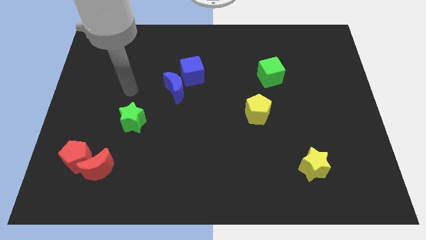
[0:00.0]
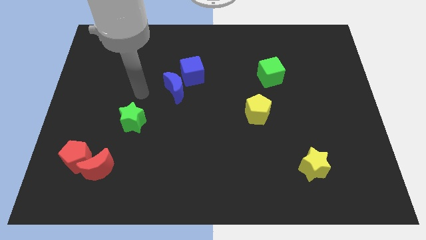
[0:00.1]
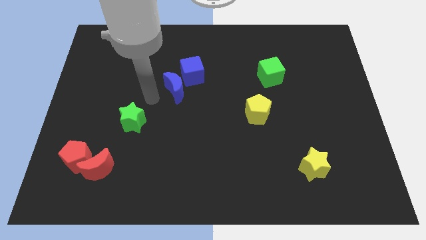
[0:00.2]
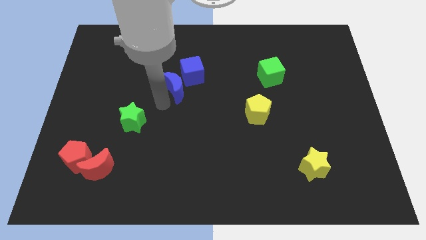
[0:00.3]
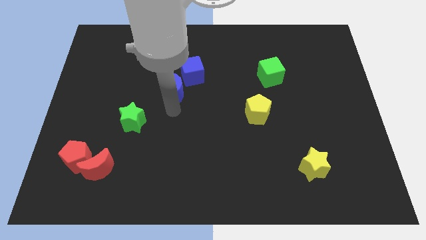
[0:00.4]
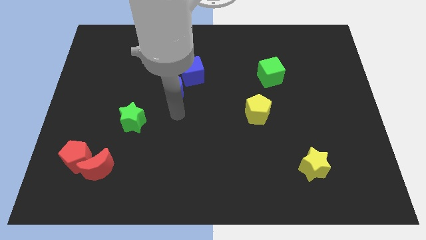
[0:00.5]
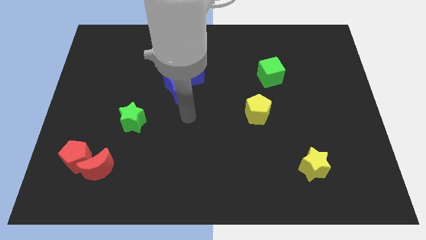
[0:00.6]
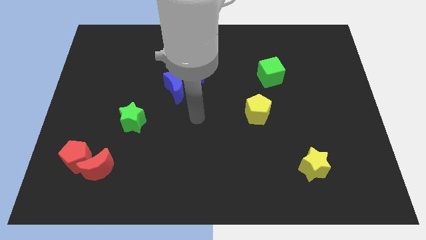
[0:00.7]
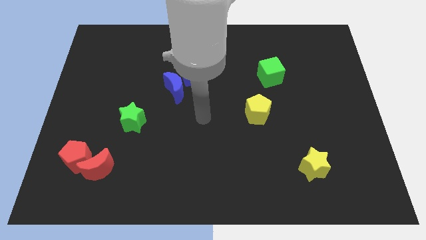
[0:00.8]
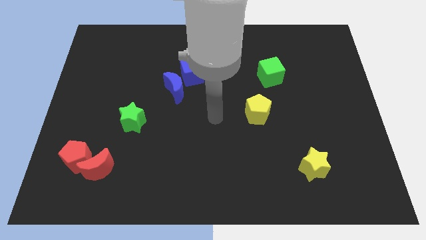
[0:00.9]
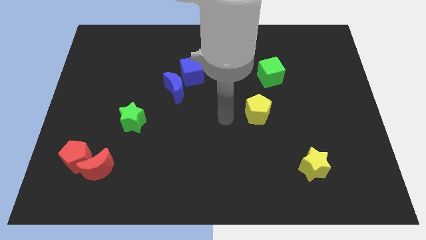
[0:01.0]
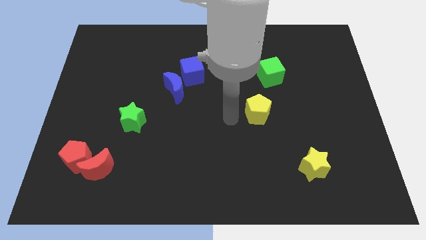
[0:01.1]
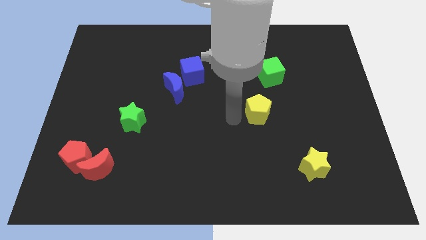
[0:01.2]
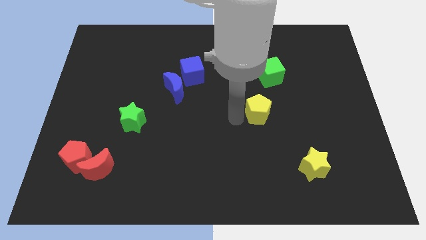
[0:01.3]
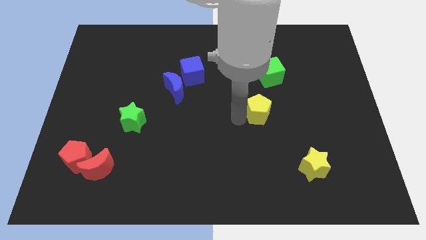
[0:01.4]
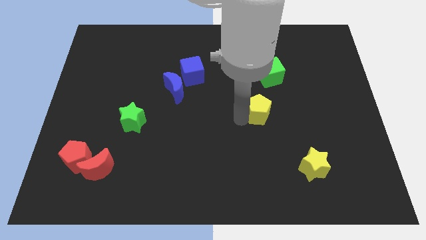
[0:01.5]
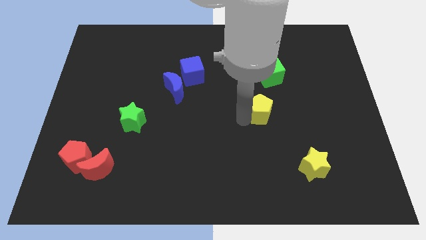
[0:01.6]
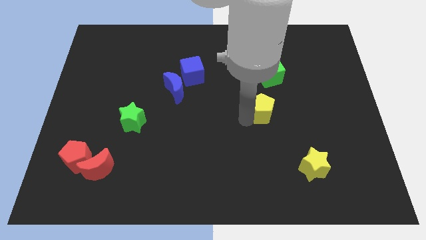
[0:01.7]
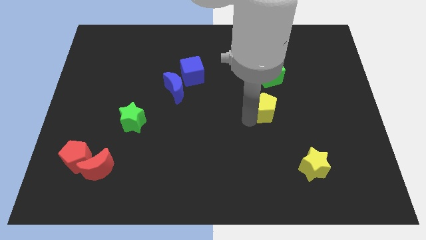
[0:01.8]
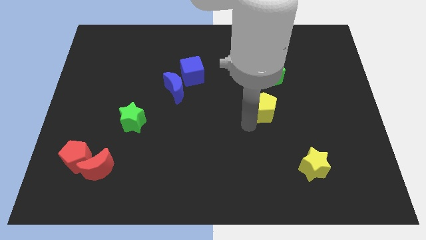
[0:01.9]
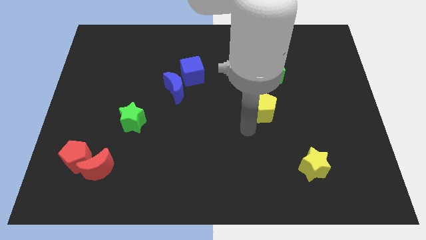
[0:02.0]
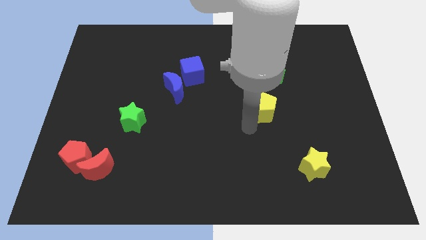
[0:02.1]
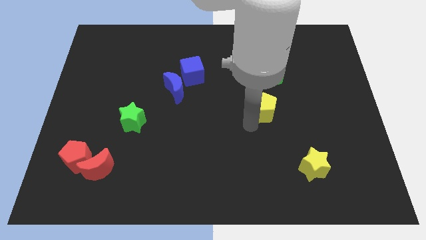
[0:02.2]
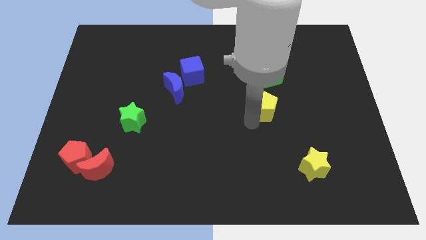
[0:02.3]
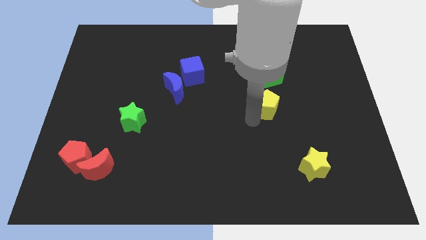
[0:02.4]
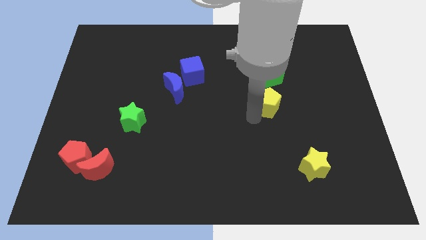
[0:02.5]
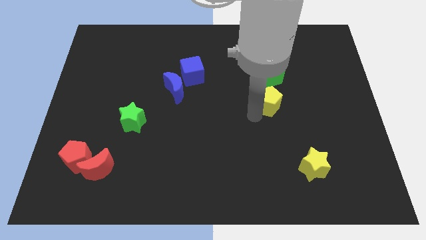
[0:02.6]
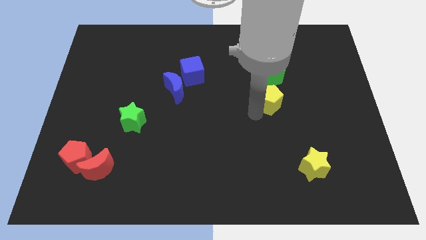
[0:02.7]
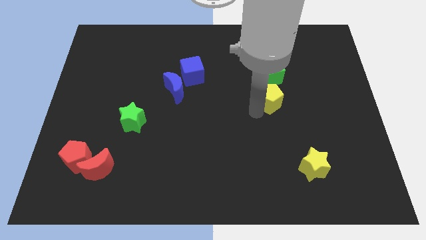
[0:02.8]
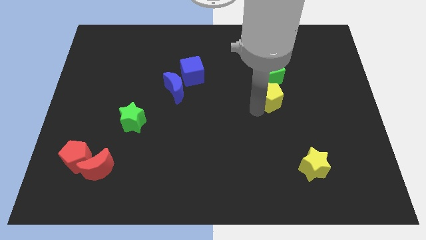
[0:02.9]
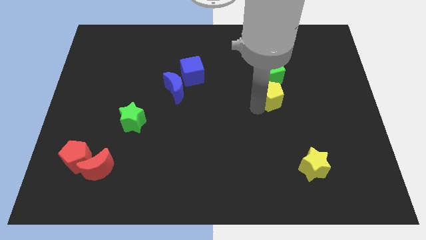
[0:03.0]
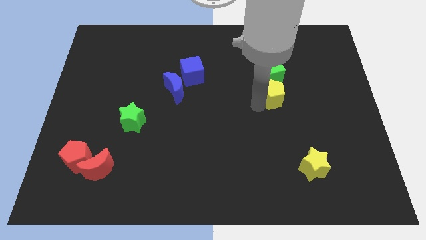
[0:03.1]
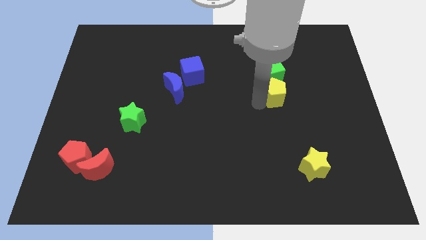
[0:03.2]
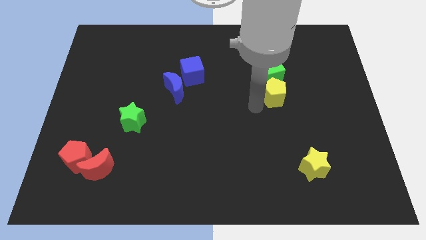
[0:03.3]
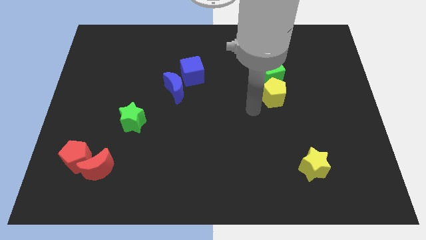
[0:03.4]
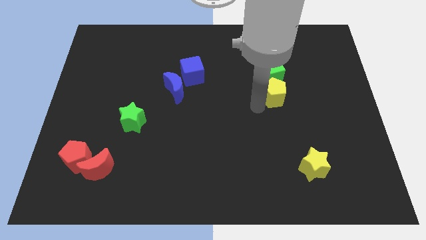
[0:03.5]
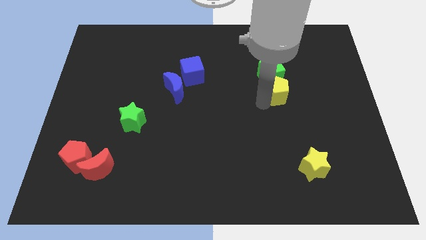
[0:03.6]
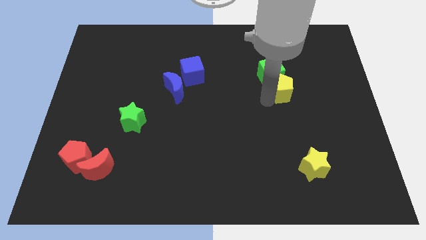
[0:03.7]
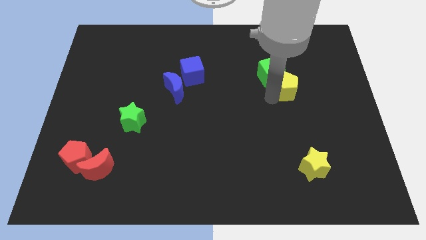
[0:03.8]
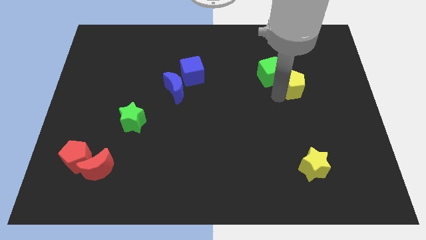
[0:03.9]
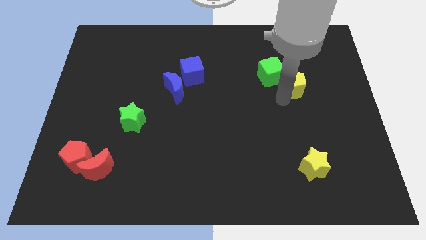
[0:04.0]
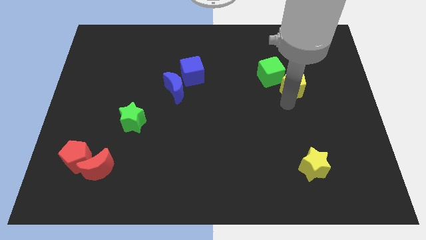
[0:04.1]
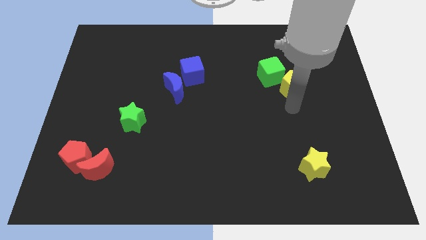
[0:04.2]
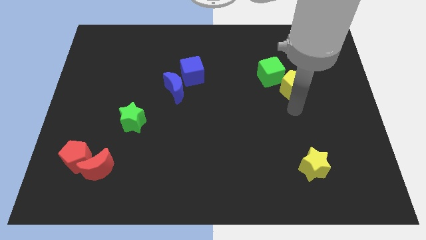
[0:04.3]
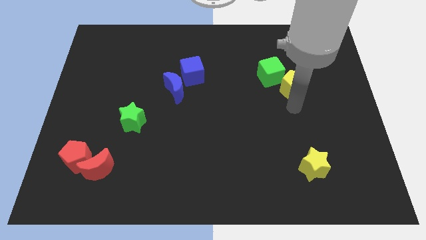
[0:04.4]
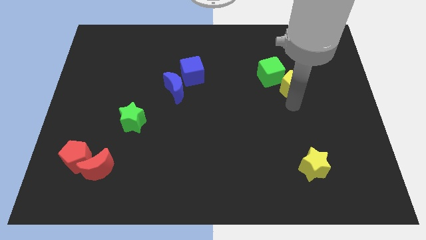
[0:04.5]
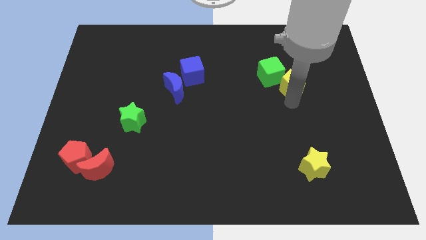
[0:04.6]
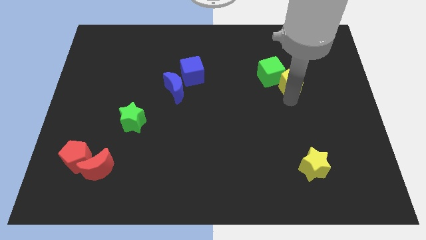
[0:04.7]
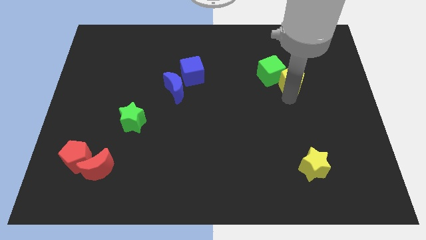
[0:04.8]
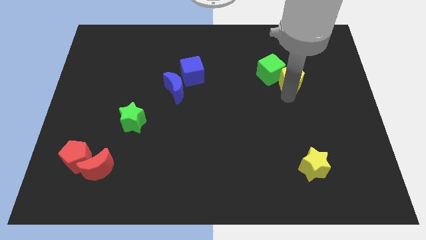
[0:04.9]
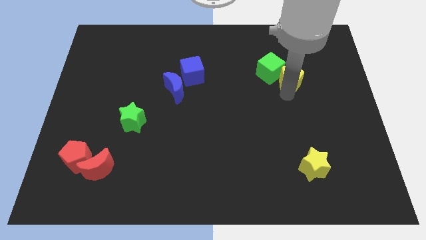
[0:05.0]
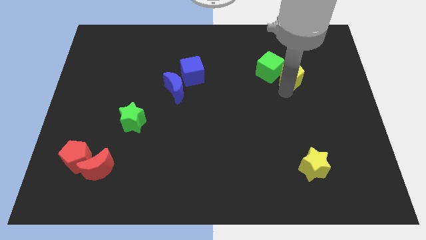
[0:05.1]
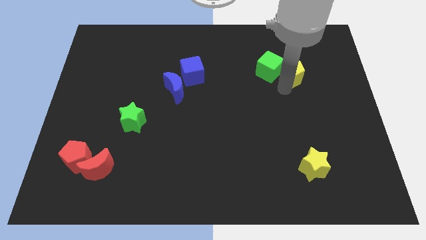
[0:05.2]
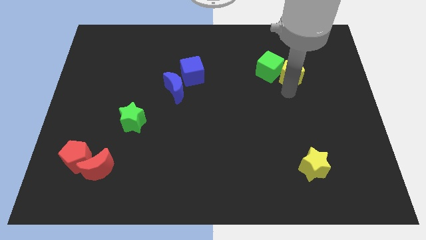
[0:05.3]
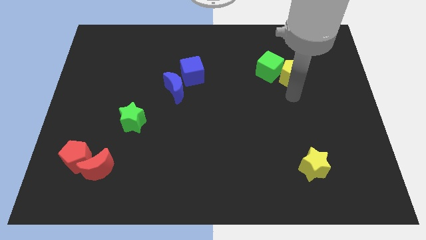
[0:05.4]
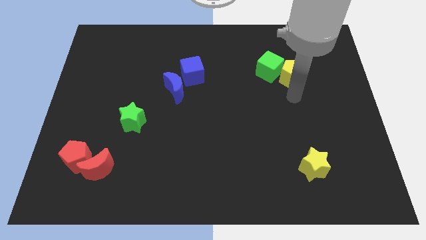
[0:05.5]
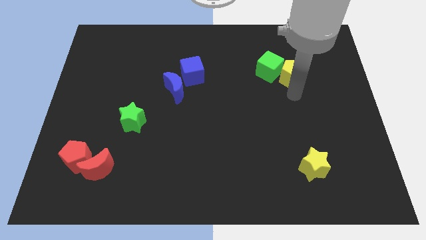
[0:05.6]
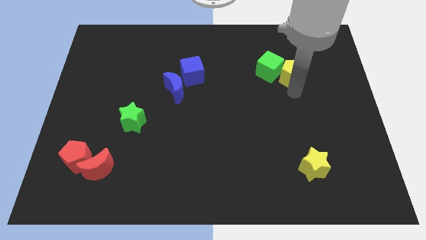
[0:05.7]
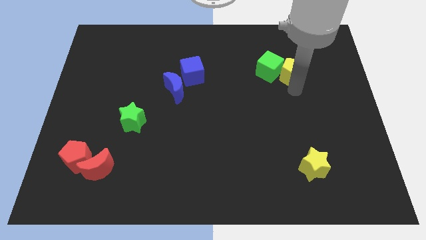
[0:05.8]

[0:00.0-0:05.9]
put the yellow pentagon to the top right side of the green cube

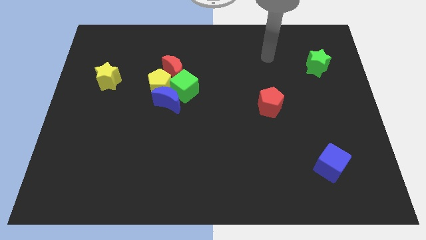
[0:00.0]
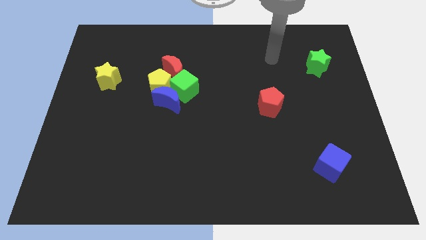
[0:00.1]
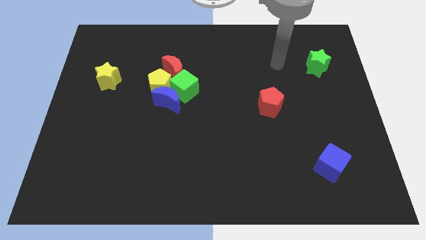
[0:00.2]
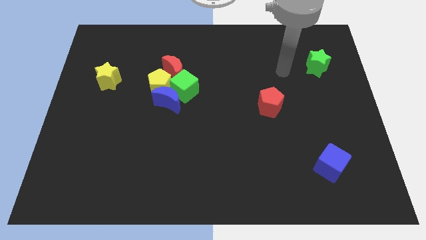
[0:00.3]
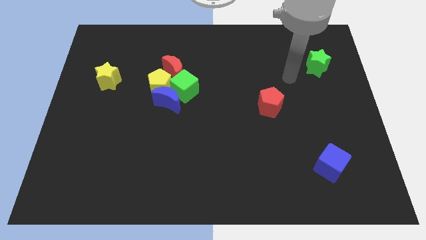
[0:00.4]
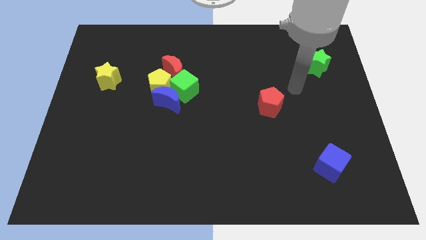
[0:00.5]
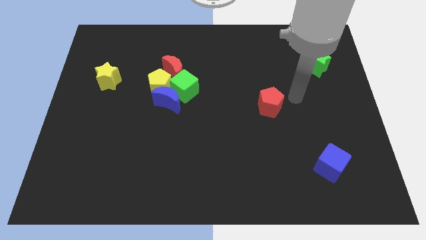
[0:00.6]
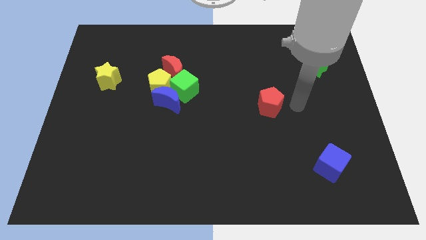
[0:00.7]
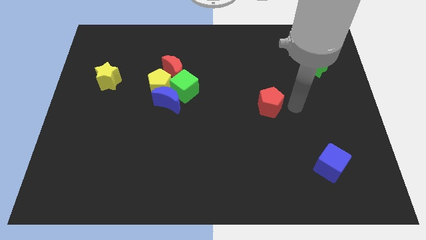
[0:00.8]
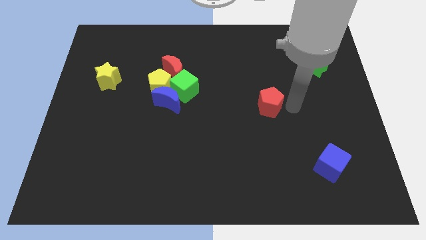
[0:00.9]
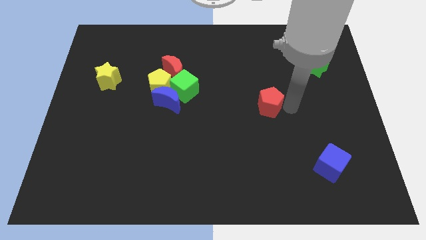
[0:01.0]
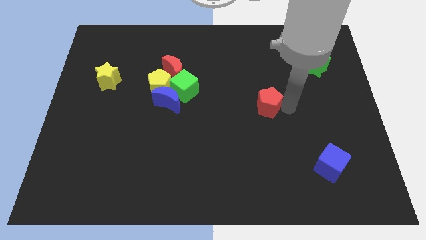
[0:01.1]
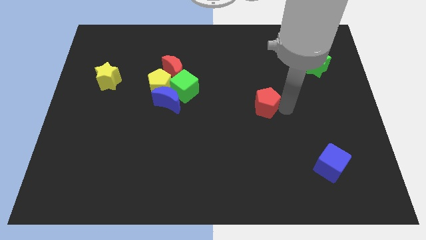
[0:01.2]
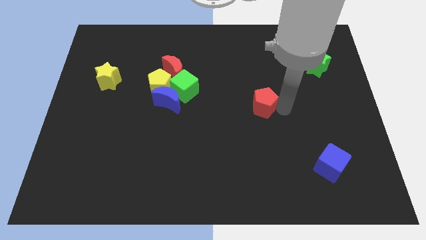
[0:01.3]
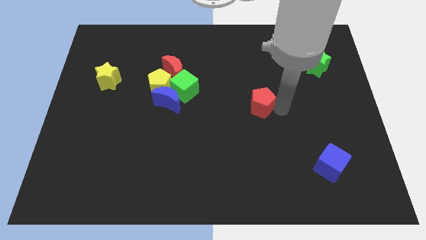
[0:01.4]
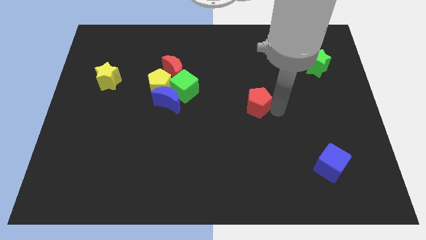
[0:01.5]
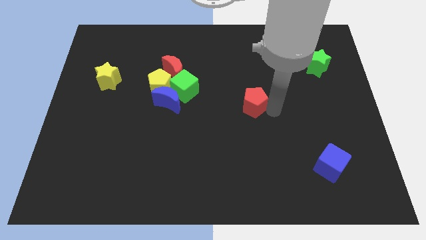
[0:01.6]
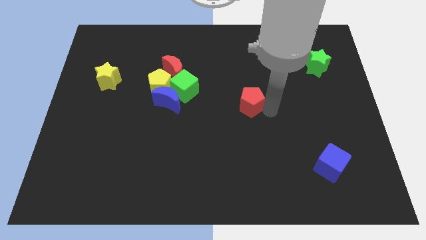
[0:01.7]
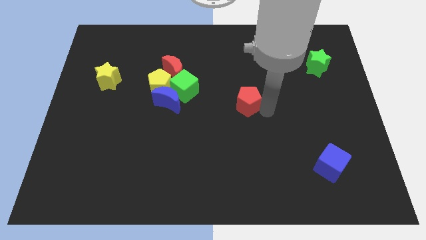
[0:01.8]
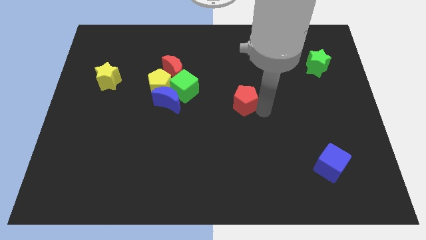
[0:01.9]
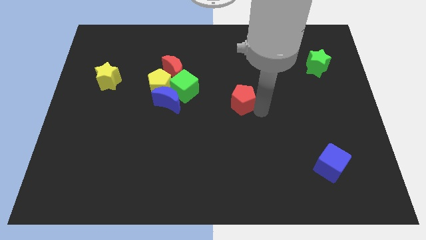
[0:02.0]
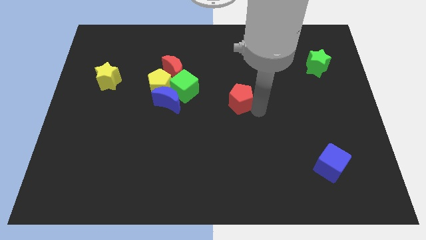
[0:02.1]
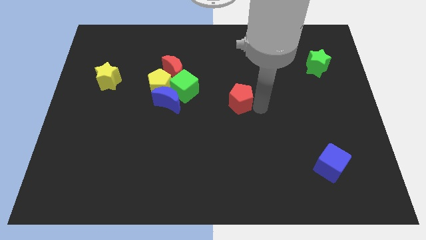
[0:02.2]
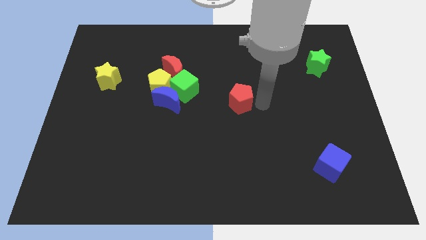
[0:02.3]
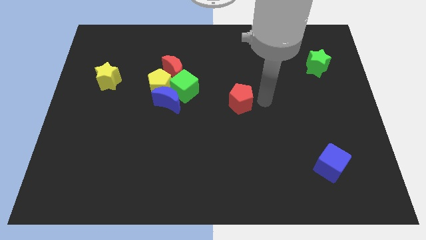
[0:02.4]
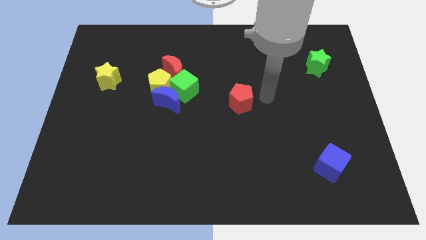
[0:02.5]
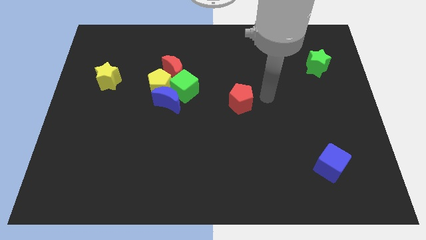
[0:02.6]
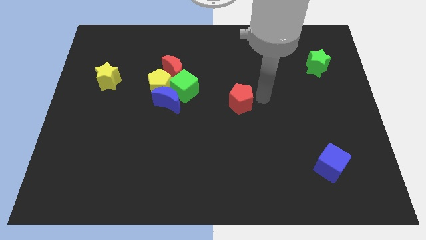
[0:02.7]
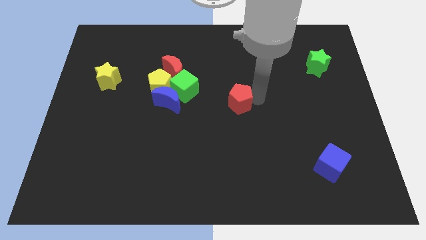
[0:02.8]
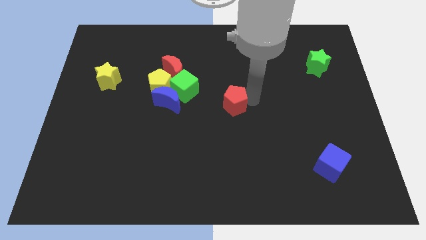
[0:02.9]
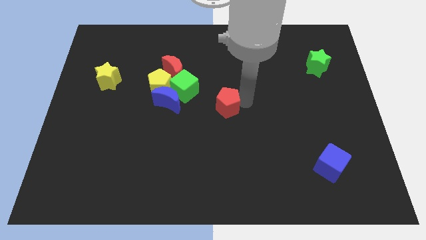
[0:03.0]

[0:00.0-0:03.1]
slide the red pentagon diagonally down and to the right of the green cube
